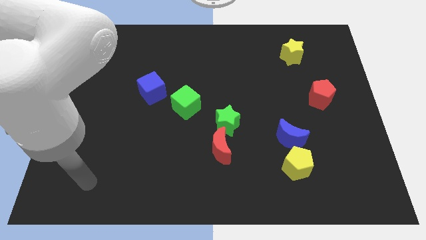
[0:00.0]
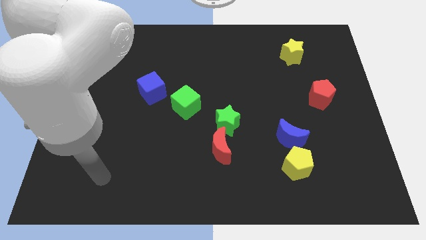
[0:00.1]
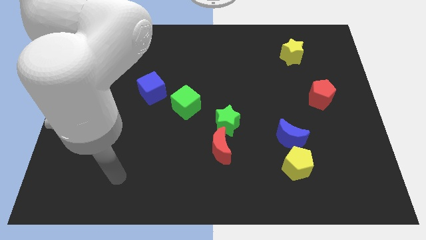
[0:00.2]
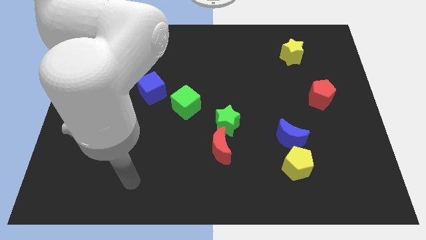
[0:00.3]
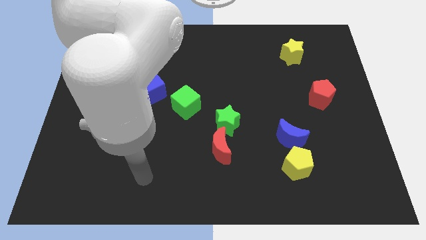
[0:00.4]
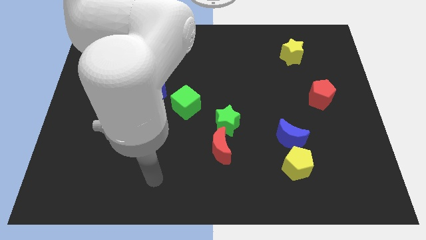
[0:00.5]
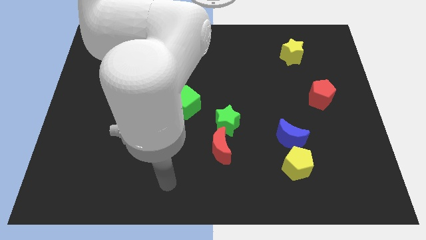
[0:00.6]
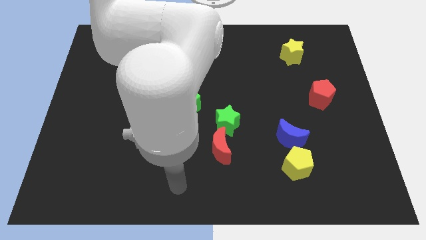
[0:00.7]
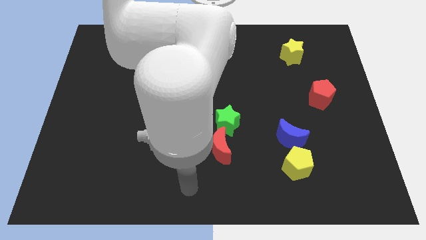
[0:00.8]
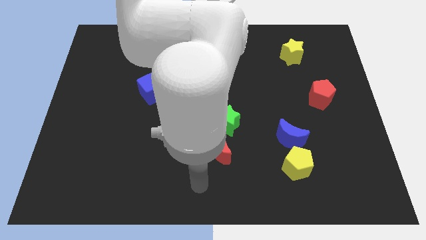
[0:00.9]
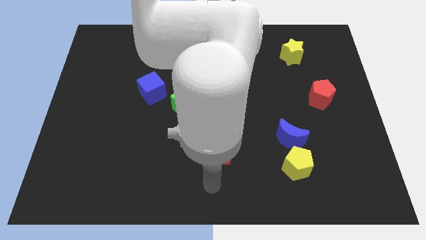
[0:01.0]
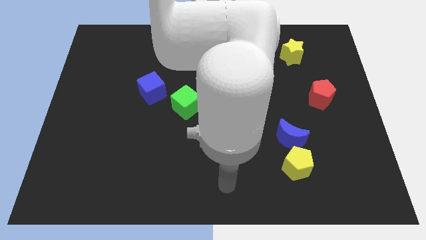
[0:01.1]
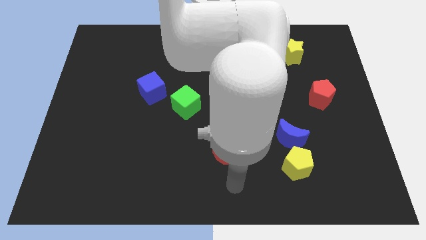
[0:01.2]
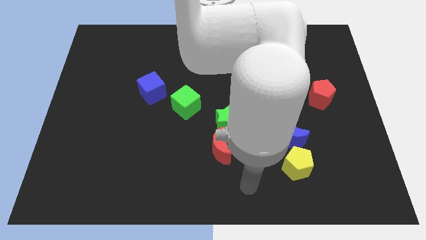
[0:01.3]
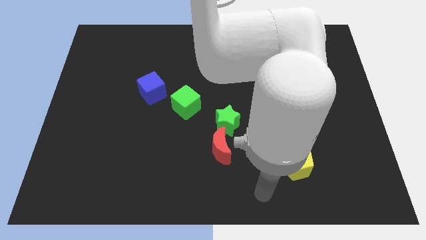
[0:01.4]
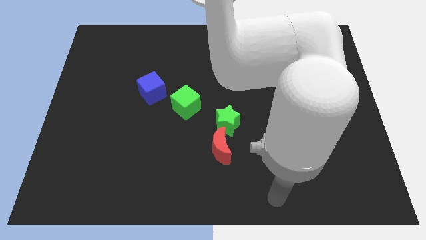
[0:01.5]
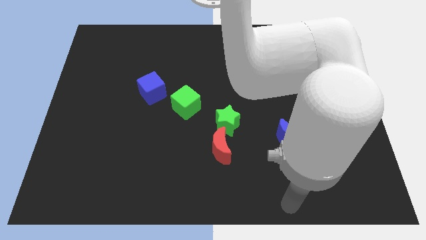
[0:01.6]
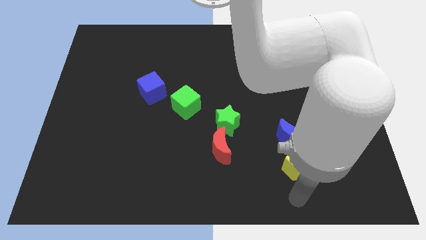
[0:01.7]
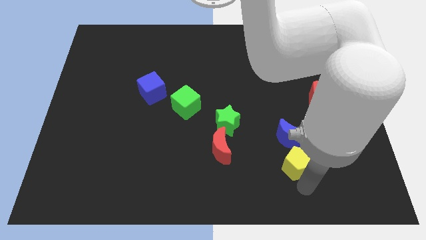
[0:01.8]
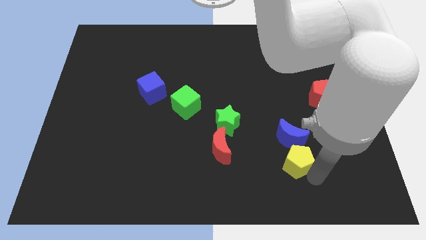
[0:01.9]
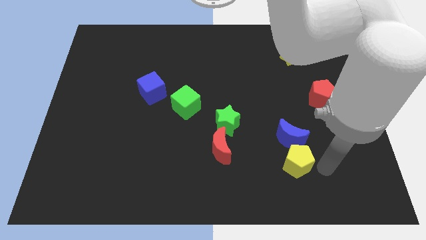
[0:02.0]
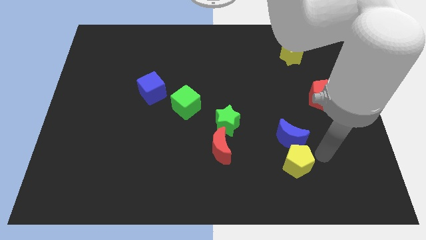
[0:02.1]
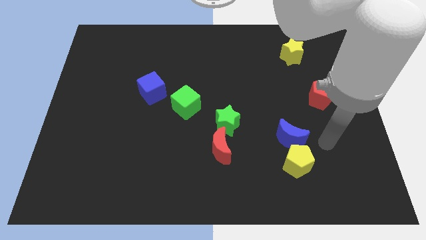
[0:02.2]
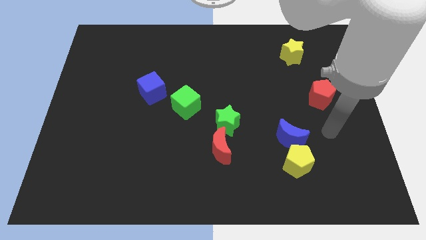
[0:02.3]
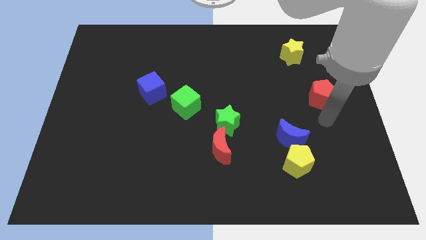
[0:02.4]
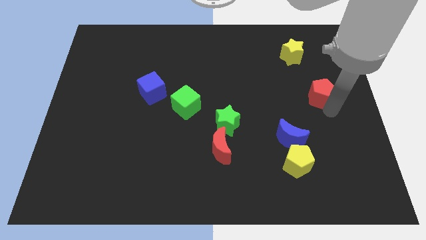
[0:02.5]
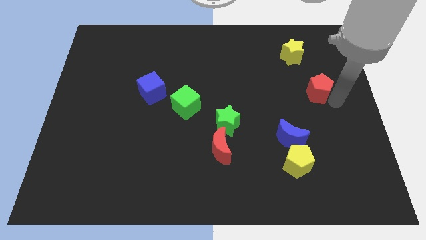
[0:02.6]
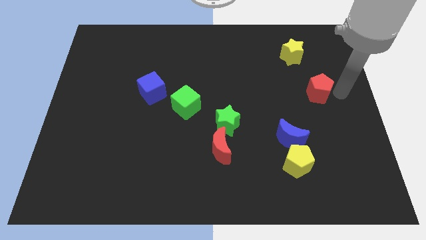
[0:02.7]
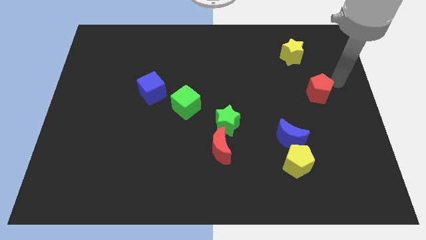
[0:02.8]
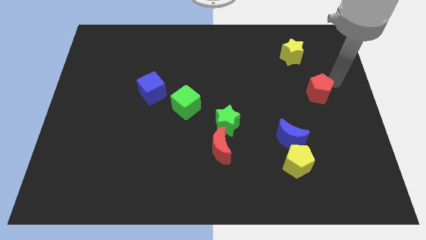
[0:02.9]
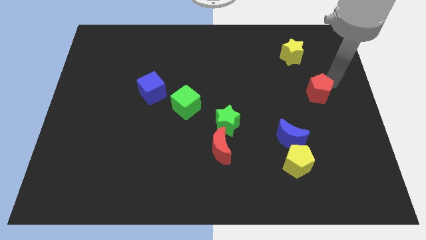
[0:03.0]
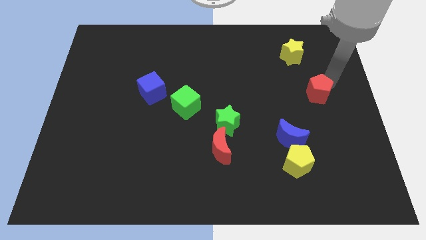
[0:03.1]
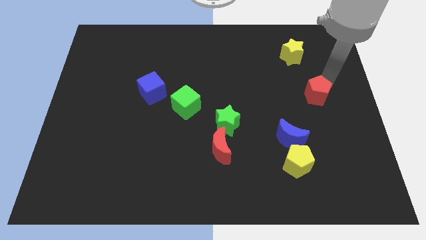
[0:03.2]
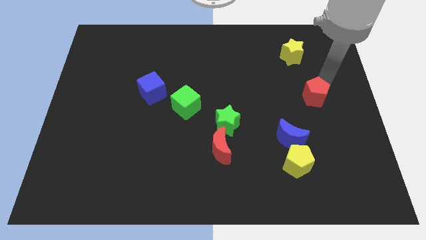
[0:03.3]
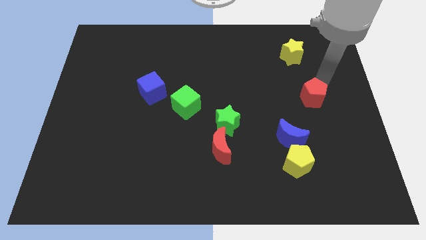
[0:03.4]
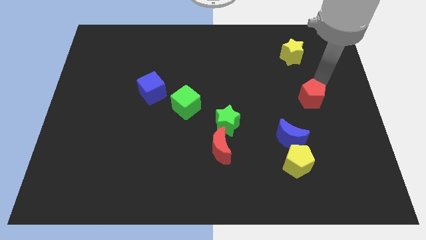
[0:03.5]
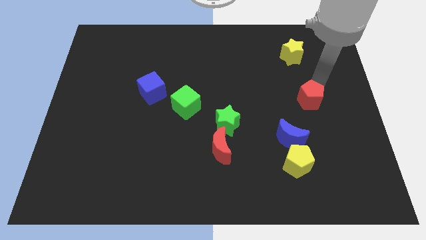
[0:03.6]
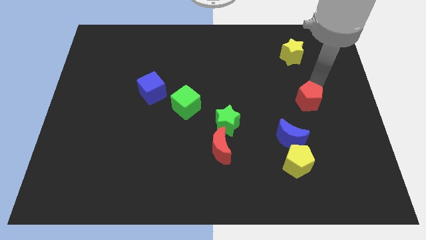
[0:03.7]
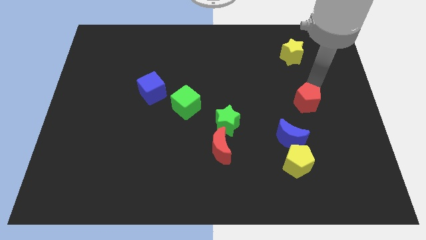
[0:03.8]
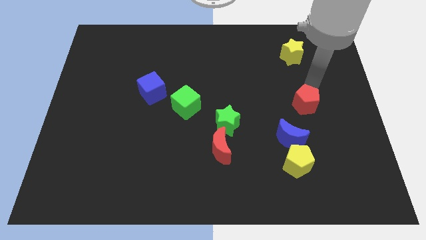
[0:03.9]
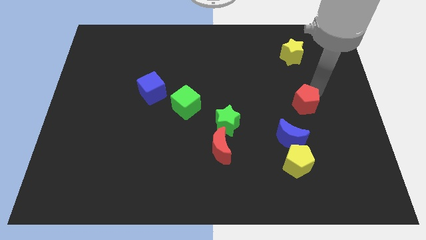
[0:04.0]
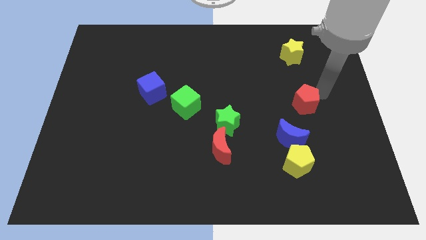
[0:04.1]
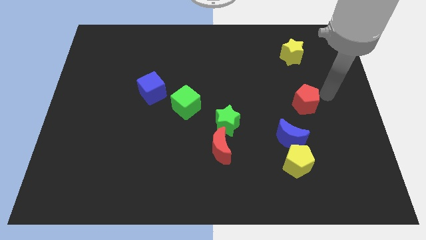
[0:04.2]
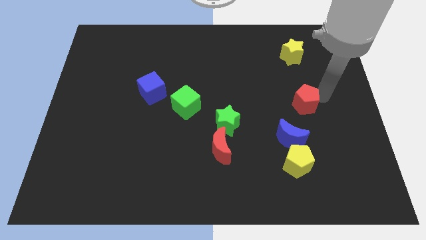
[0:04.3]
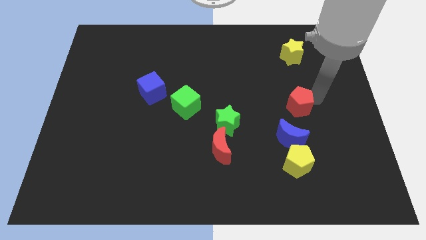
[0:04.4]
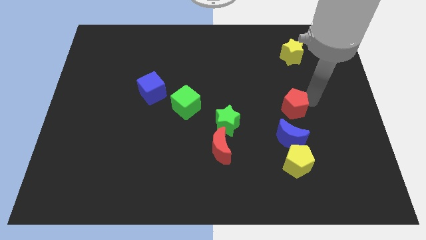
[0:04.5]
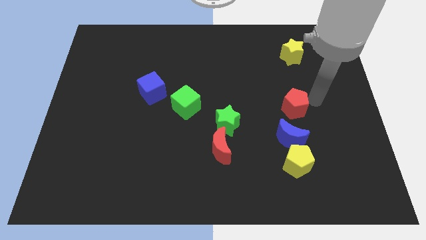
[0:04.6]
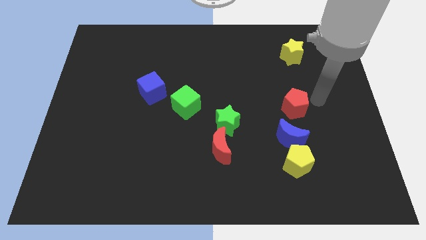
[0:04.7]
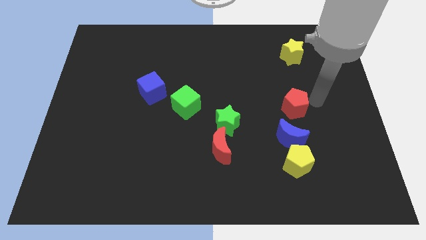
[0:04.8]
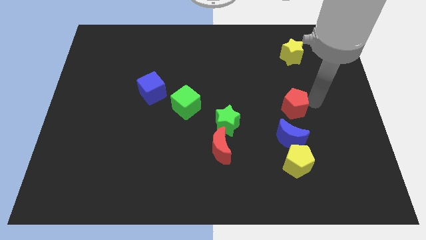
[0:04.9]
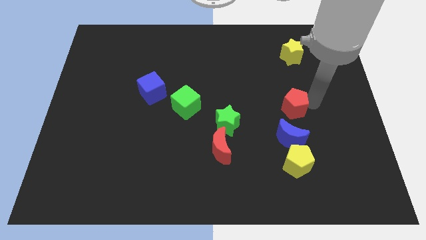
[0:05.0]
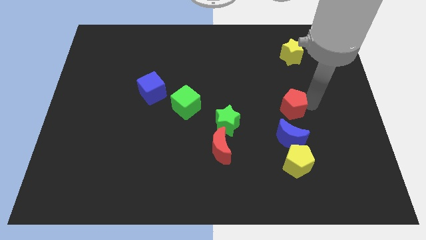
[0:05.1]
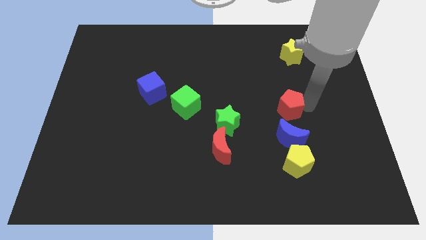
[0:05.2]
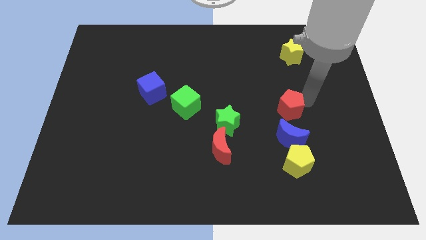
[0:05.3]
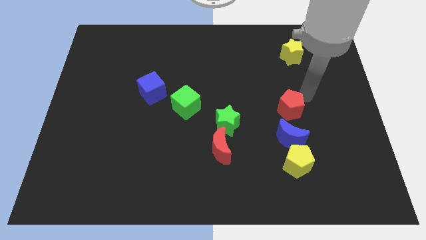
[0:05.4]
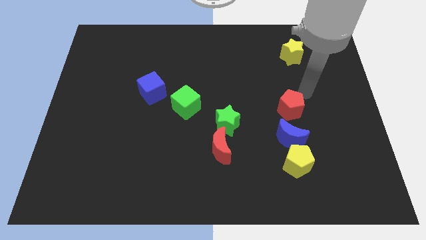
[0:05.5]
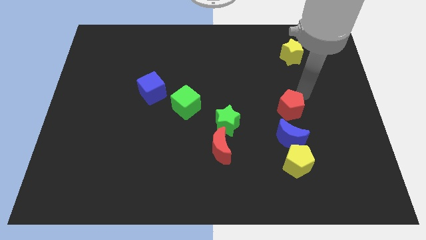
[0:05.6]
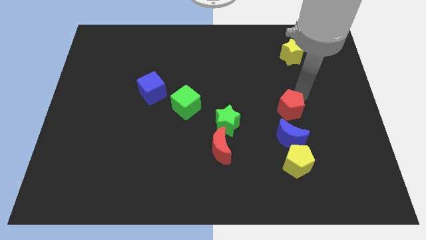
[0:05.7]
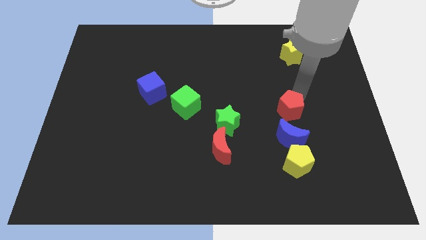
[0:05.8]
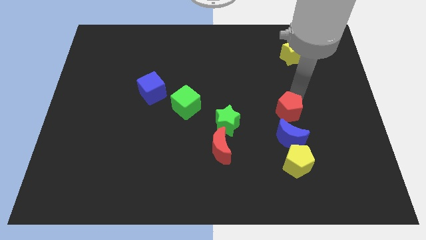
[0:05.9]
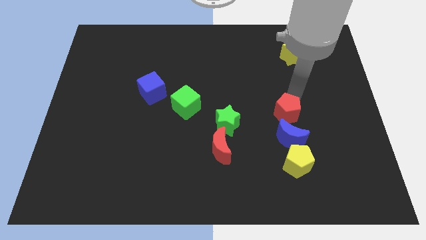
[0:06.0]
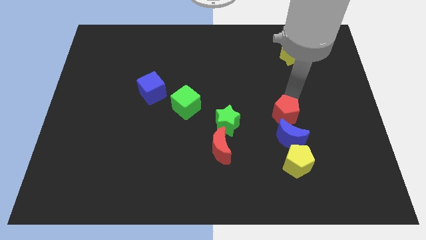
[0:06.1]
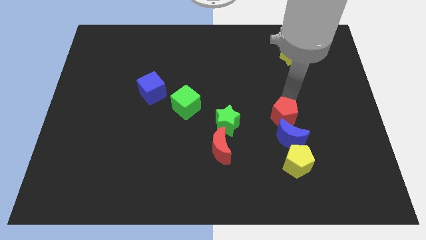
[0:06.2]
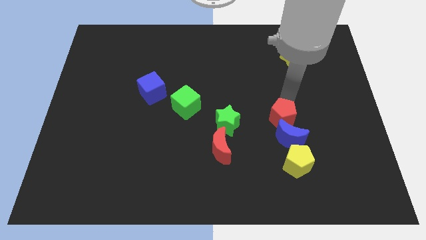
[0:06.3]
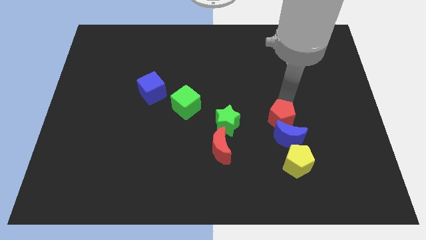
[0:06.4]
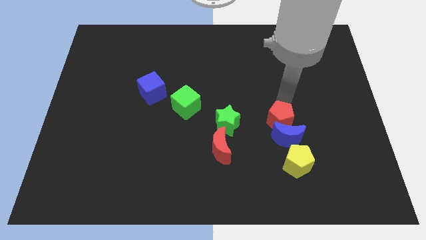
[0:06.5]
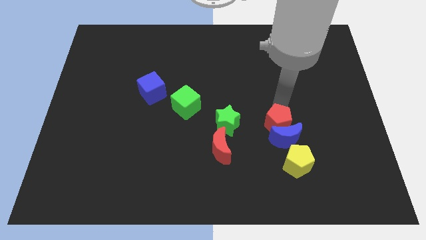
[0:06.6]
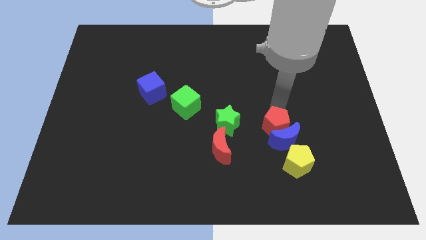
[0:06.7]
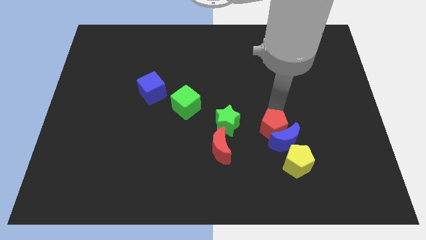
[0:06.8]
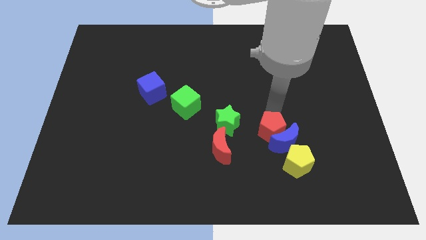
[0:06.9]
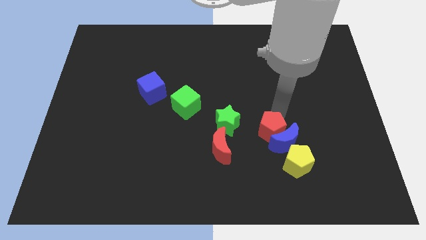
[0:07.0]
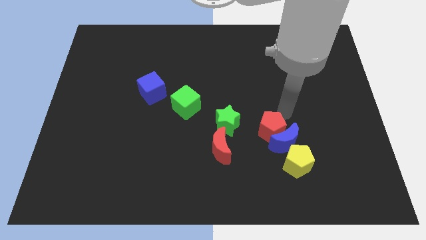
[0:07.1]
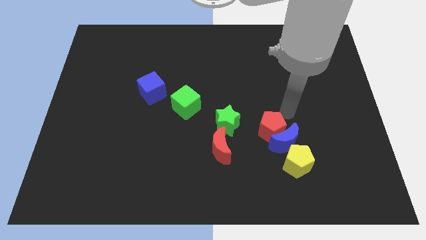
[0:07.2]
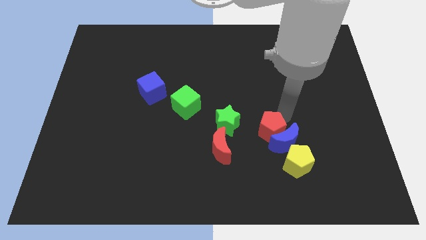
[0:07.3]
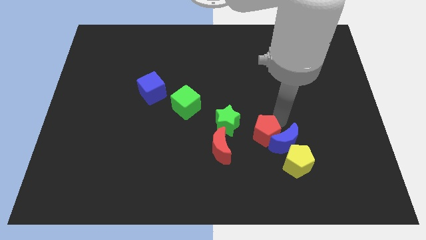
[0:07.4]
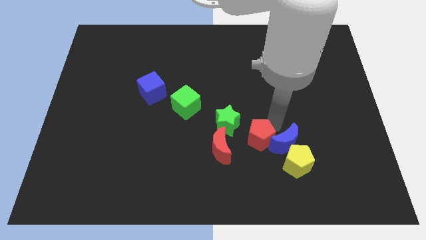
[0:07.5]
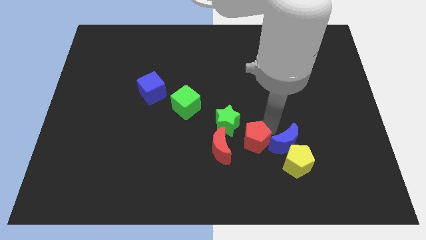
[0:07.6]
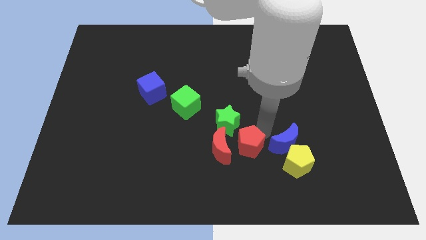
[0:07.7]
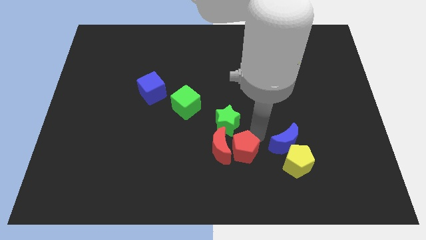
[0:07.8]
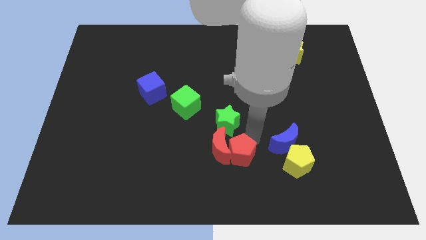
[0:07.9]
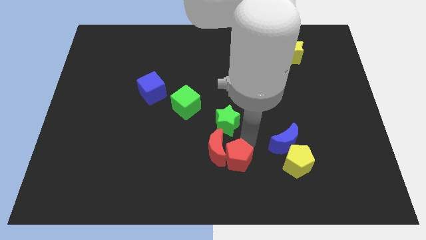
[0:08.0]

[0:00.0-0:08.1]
slide the red pentagon to the bottom
